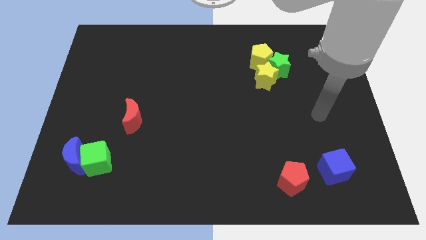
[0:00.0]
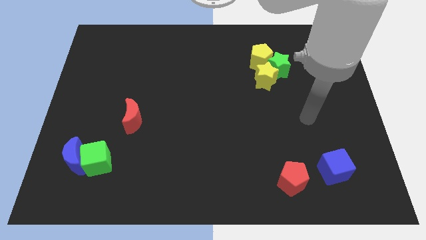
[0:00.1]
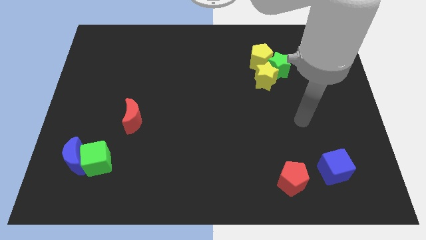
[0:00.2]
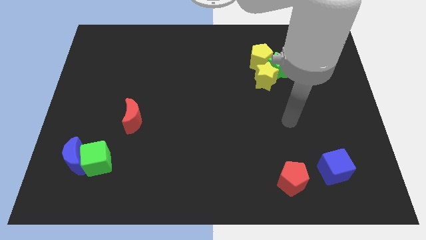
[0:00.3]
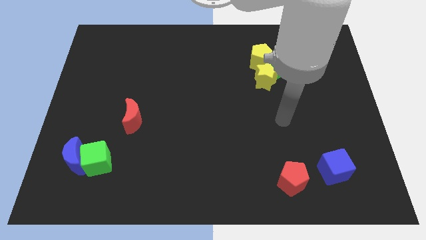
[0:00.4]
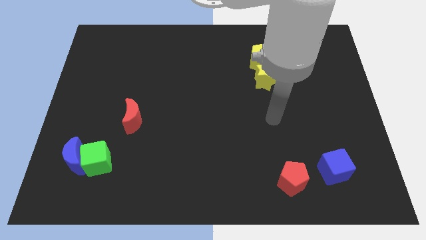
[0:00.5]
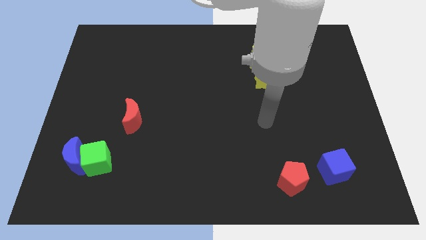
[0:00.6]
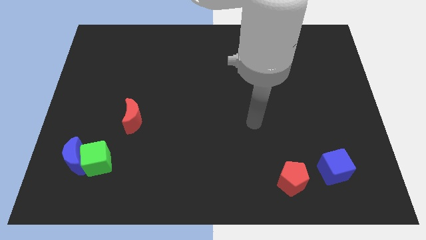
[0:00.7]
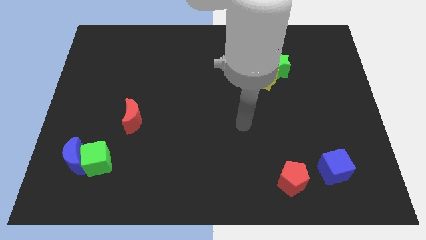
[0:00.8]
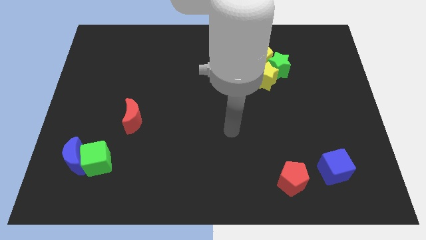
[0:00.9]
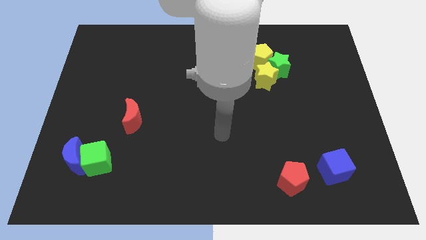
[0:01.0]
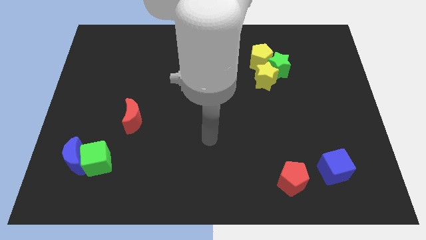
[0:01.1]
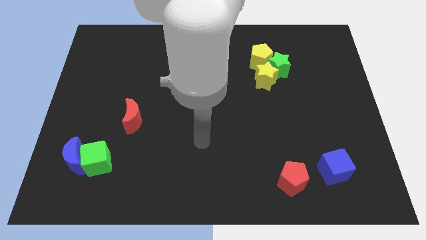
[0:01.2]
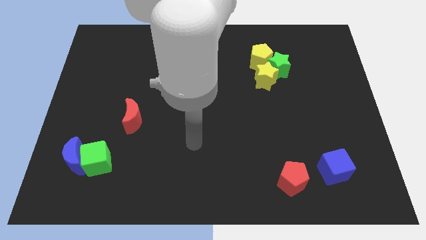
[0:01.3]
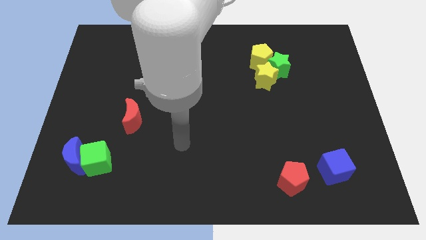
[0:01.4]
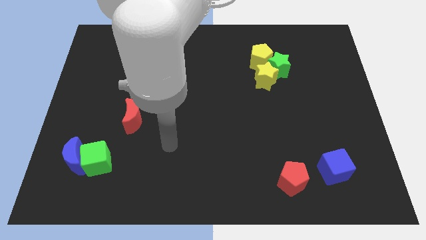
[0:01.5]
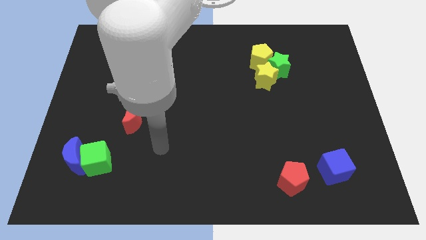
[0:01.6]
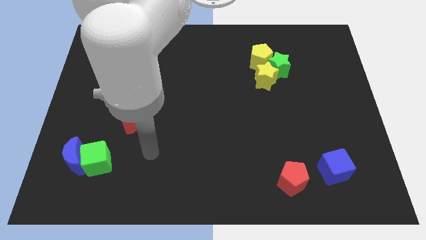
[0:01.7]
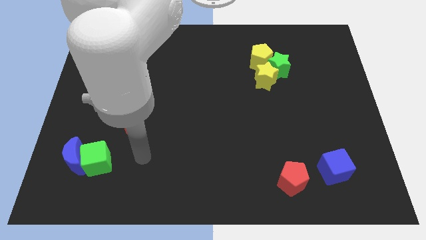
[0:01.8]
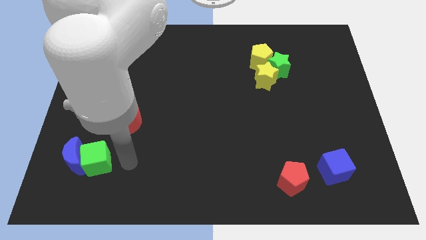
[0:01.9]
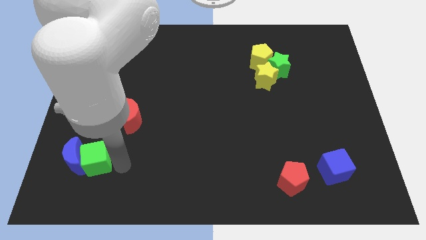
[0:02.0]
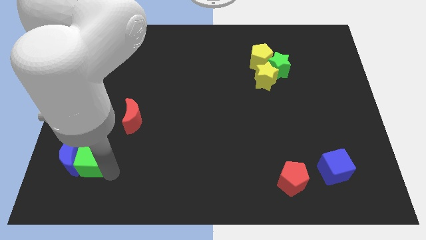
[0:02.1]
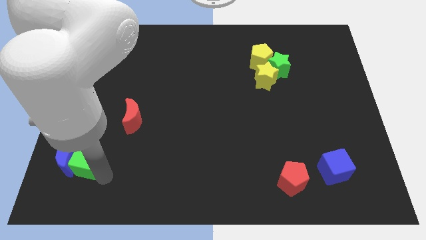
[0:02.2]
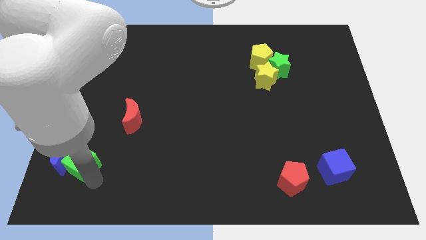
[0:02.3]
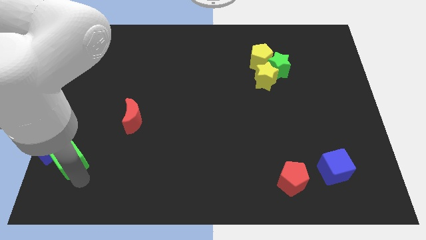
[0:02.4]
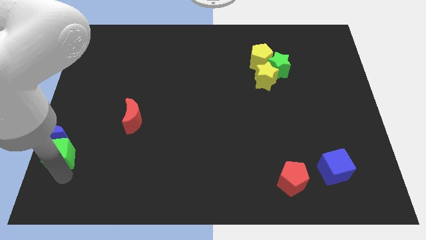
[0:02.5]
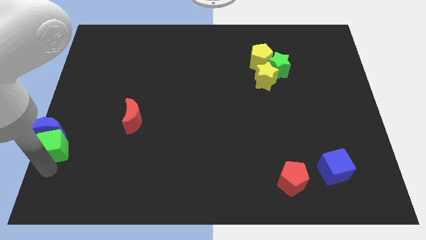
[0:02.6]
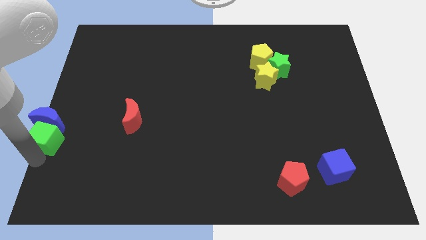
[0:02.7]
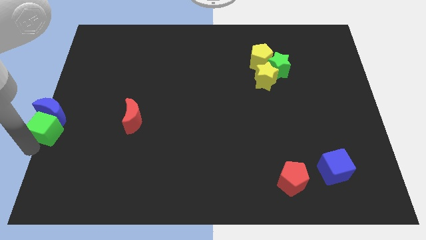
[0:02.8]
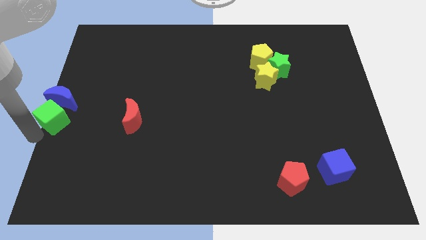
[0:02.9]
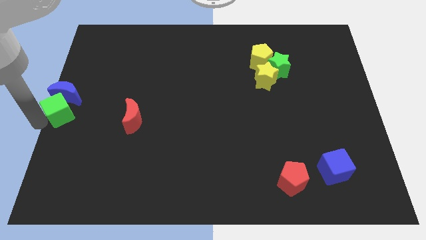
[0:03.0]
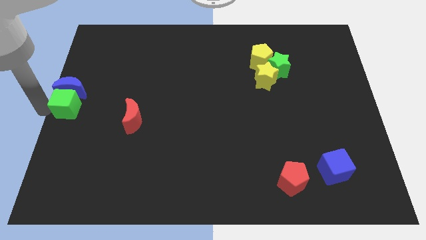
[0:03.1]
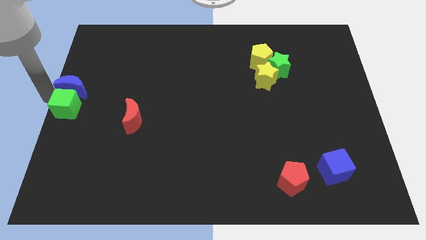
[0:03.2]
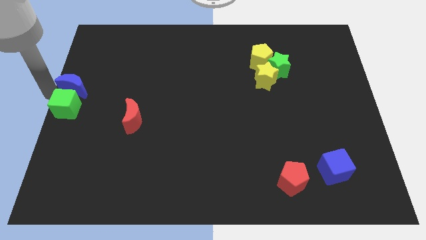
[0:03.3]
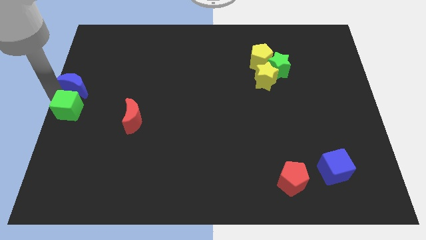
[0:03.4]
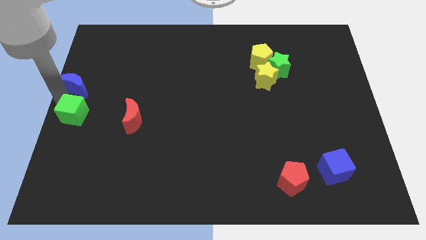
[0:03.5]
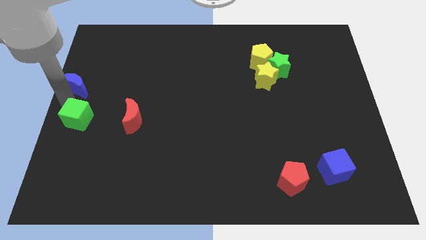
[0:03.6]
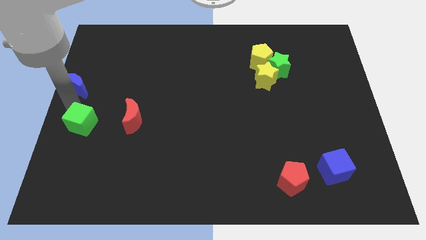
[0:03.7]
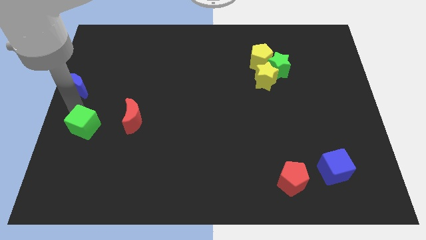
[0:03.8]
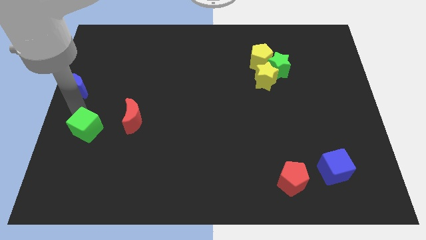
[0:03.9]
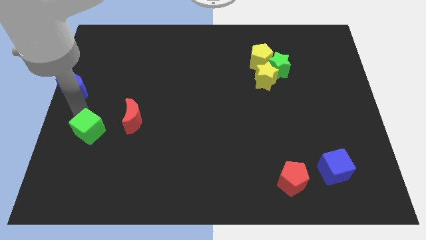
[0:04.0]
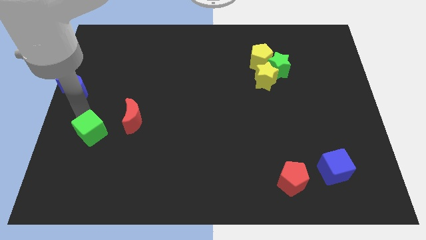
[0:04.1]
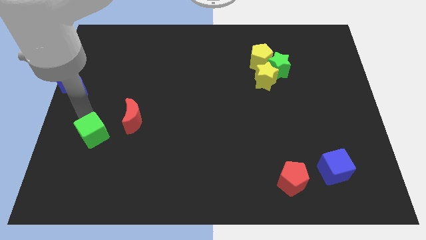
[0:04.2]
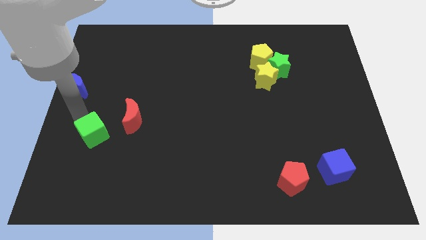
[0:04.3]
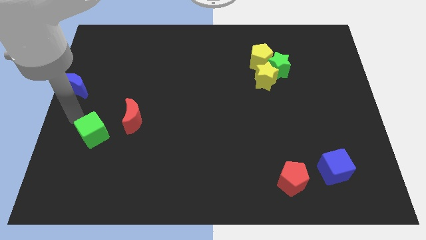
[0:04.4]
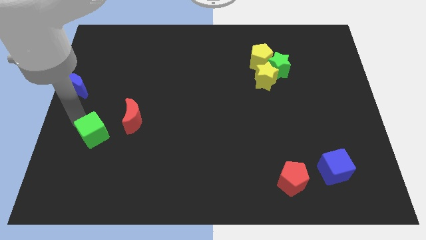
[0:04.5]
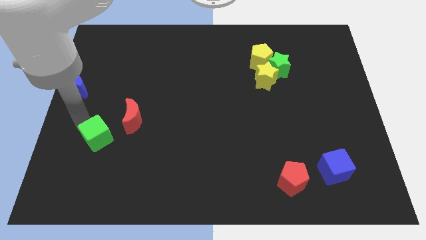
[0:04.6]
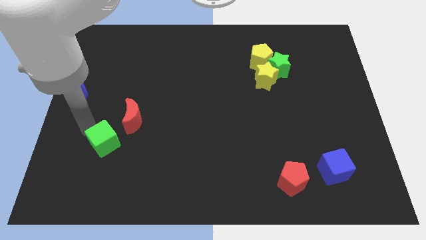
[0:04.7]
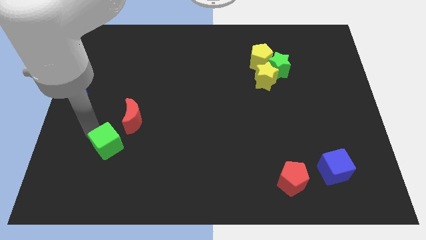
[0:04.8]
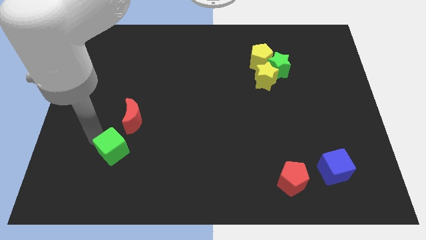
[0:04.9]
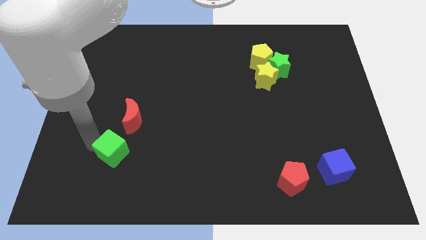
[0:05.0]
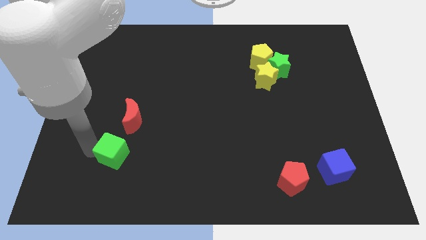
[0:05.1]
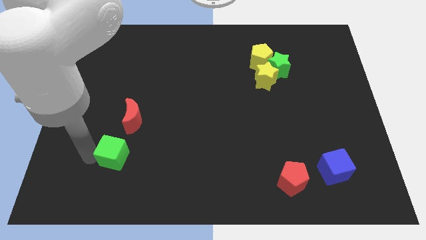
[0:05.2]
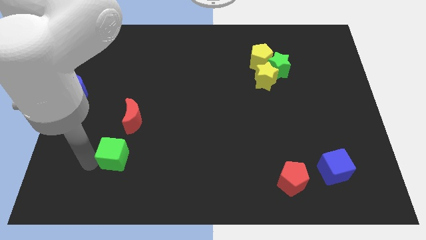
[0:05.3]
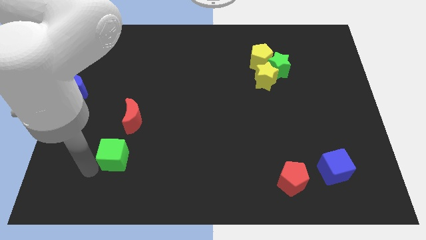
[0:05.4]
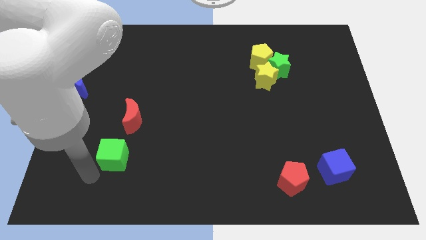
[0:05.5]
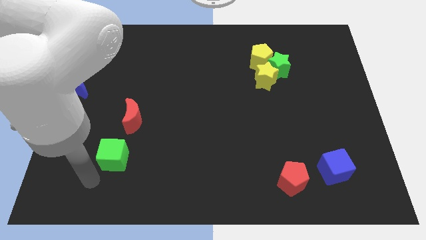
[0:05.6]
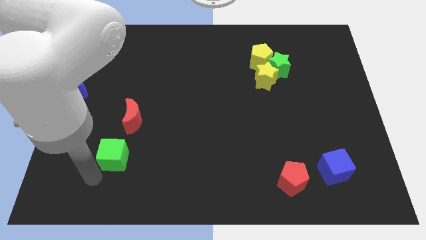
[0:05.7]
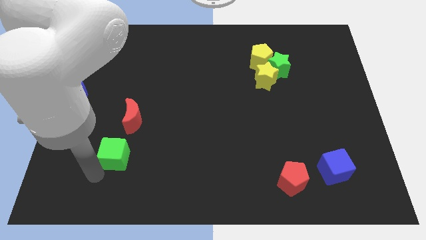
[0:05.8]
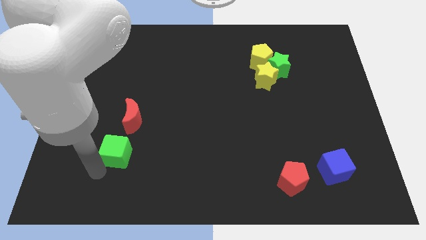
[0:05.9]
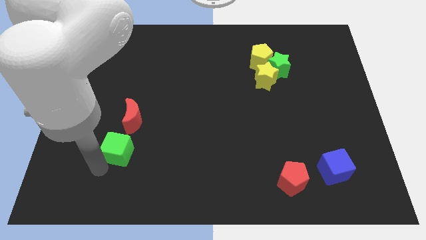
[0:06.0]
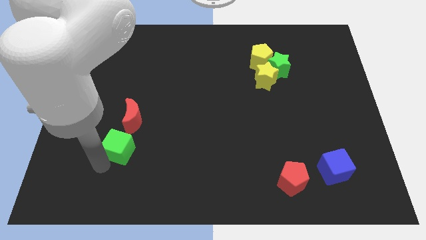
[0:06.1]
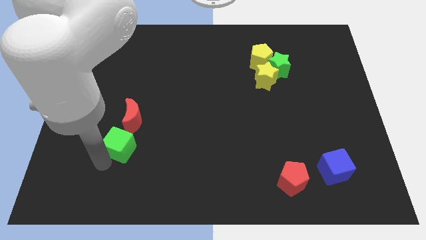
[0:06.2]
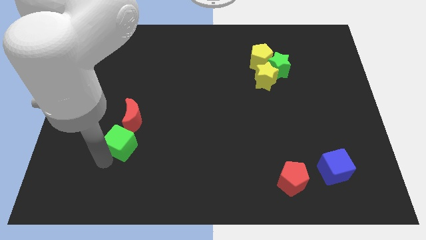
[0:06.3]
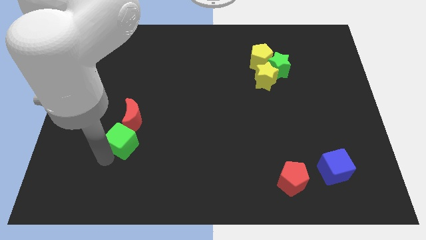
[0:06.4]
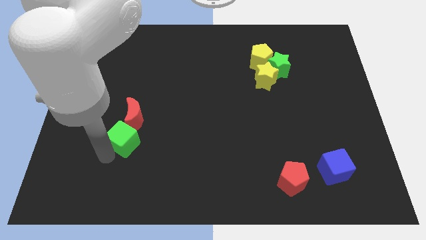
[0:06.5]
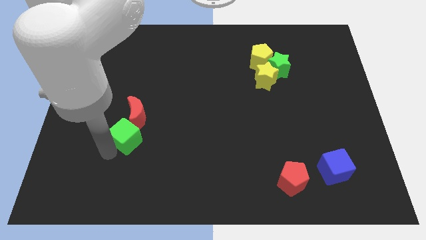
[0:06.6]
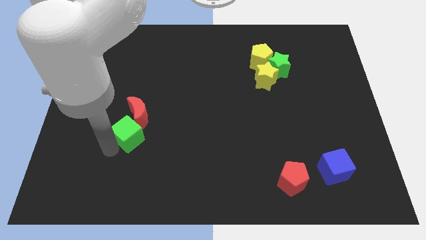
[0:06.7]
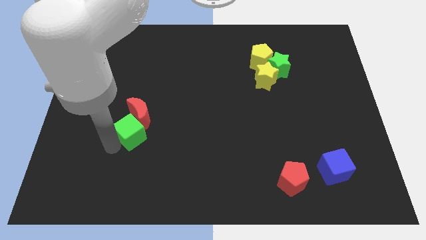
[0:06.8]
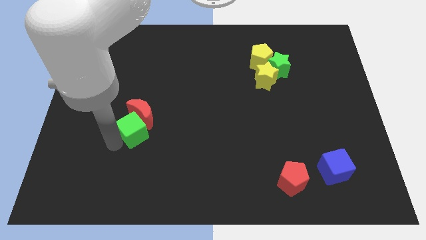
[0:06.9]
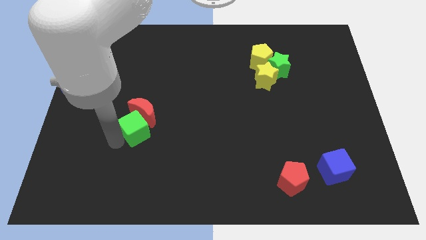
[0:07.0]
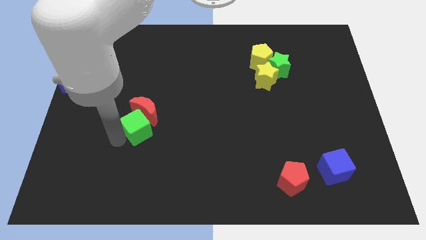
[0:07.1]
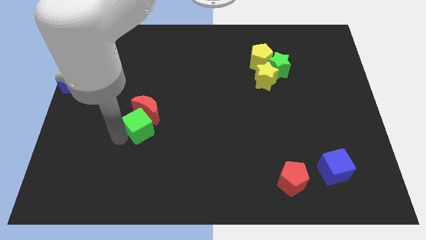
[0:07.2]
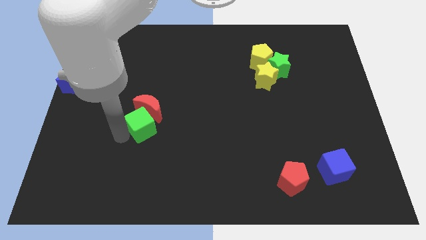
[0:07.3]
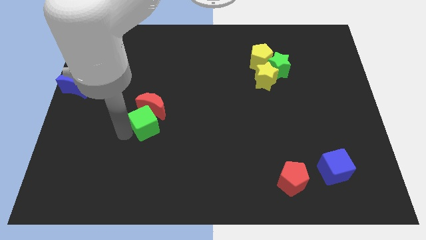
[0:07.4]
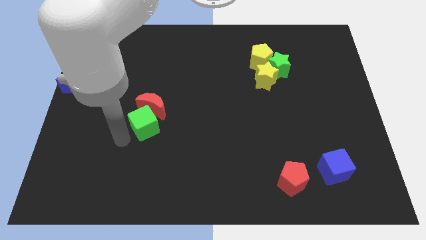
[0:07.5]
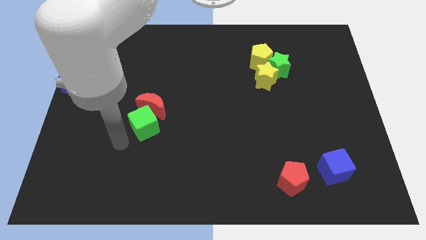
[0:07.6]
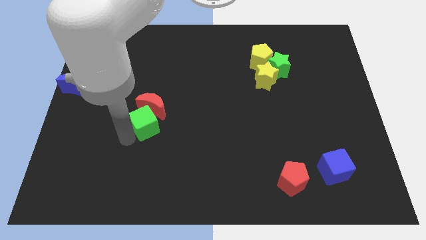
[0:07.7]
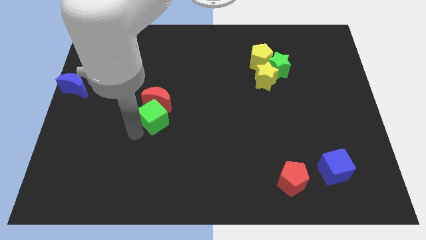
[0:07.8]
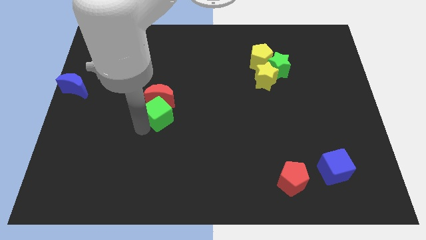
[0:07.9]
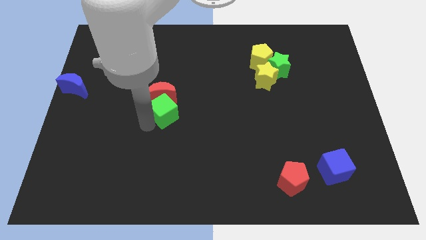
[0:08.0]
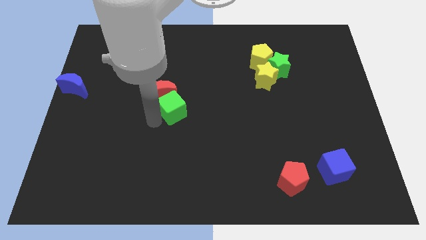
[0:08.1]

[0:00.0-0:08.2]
move the green cube up and then right
